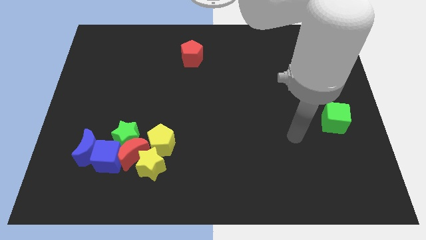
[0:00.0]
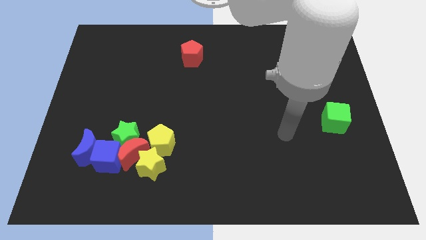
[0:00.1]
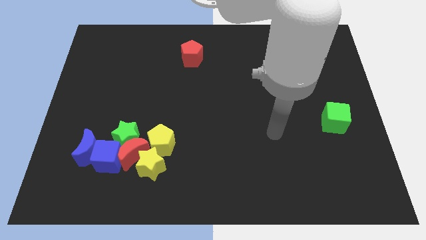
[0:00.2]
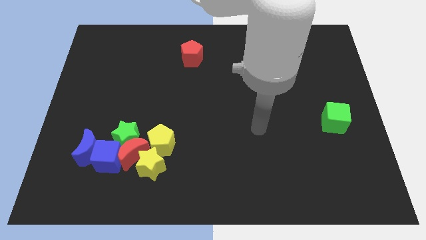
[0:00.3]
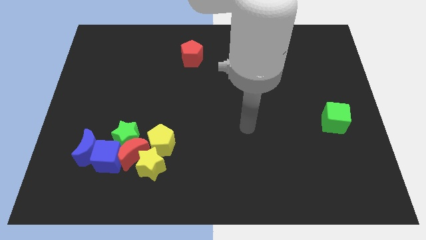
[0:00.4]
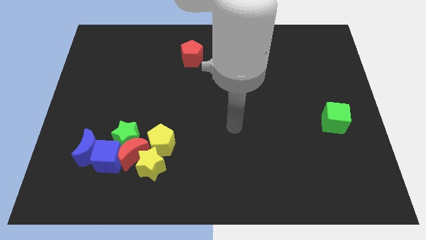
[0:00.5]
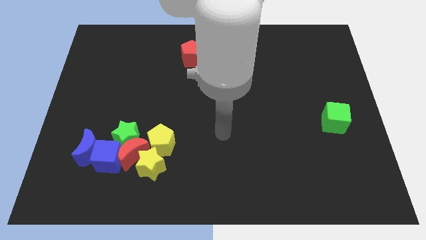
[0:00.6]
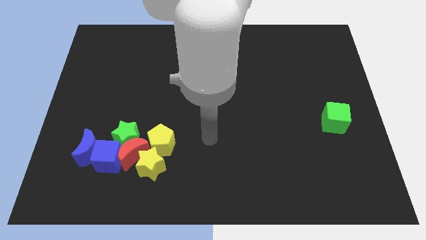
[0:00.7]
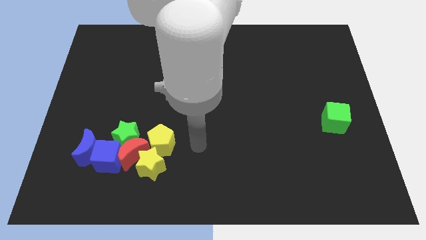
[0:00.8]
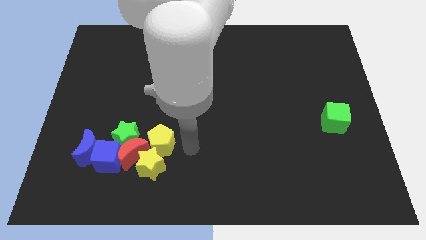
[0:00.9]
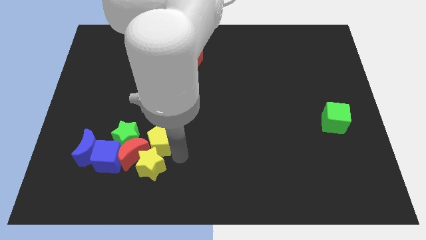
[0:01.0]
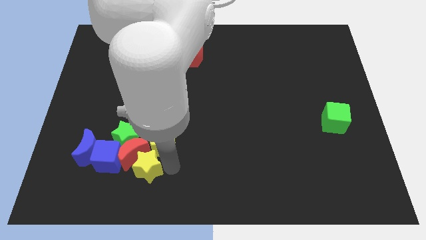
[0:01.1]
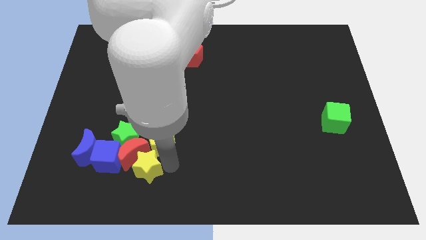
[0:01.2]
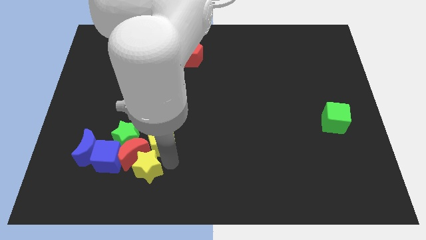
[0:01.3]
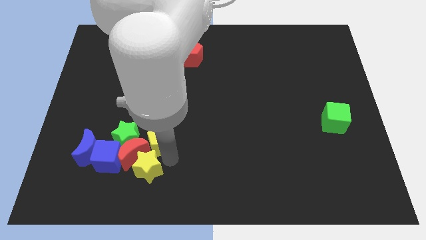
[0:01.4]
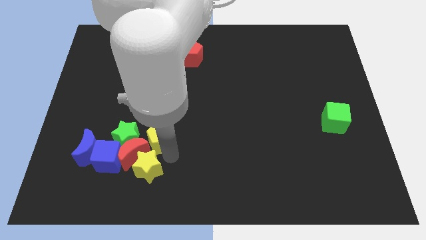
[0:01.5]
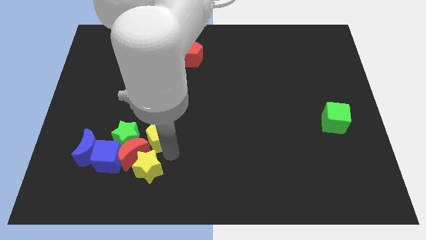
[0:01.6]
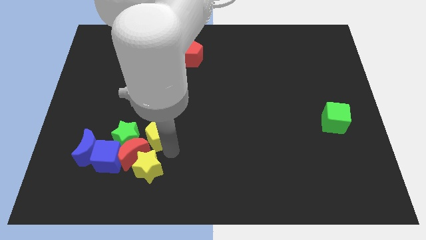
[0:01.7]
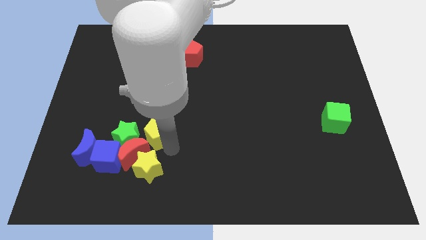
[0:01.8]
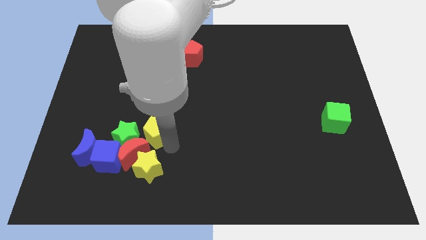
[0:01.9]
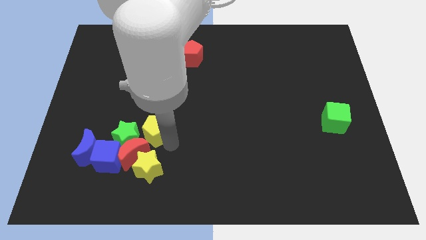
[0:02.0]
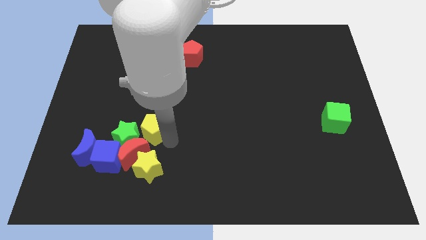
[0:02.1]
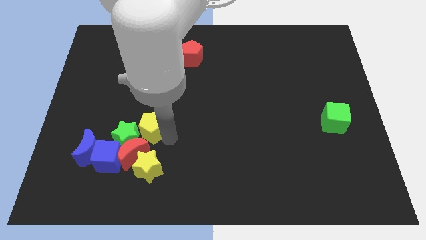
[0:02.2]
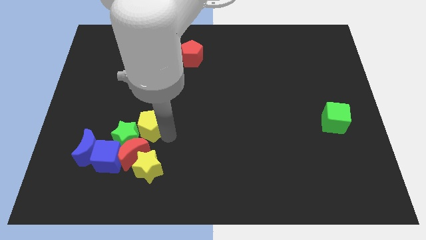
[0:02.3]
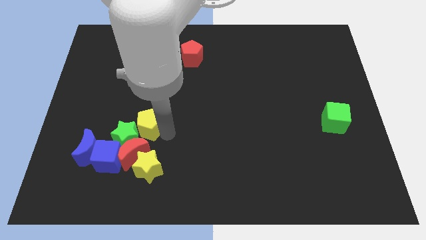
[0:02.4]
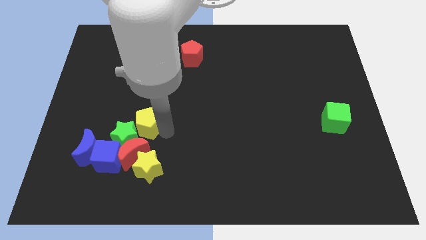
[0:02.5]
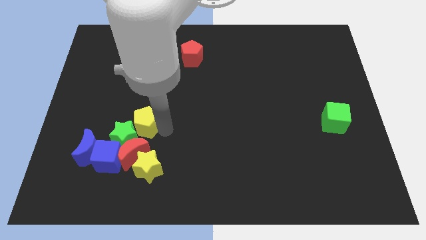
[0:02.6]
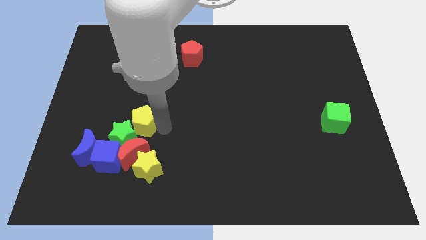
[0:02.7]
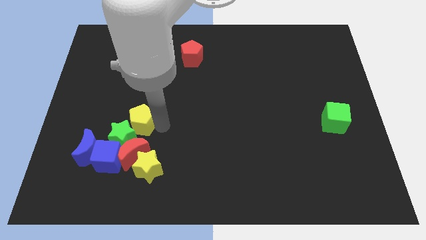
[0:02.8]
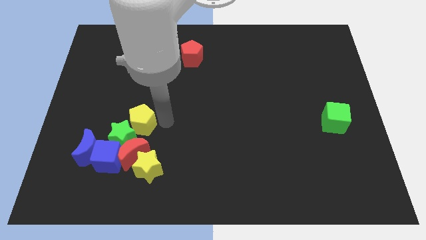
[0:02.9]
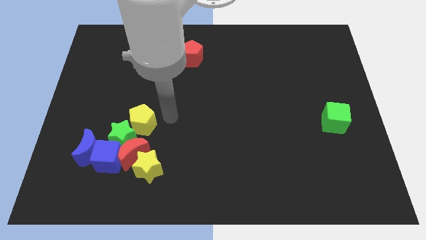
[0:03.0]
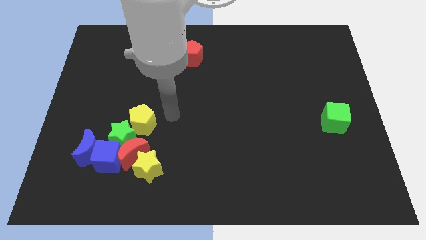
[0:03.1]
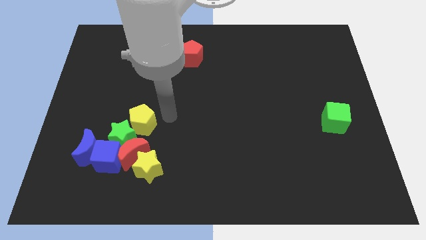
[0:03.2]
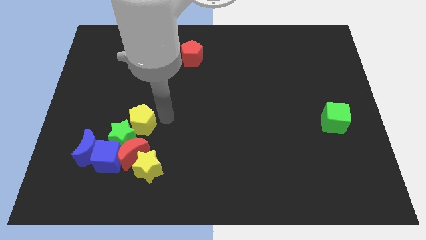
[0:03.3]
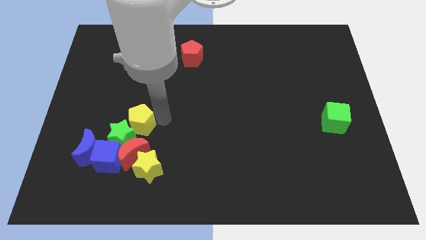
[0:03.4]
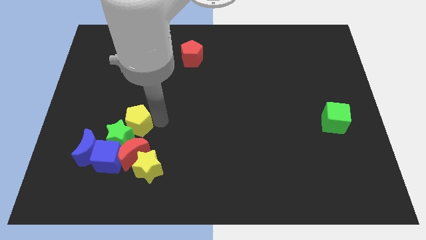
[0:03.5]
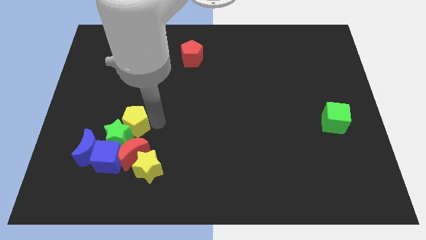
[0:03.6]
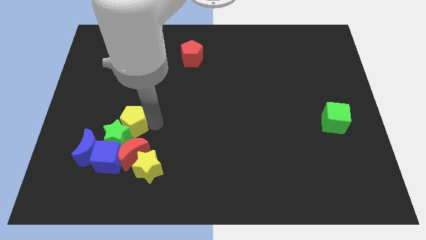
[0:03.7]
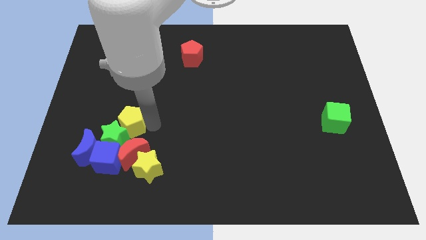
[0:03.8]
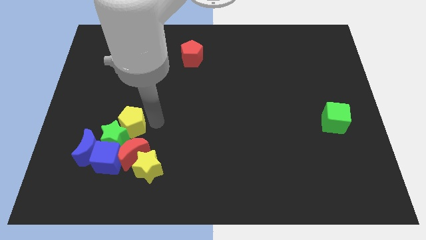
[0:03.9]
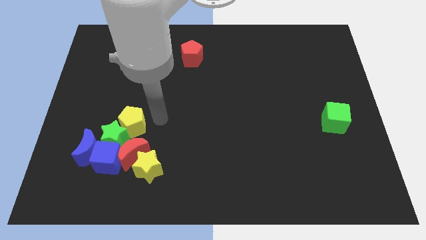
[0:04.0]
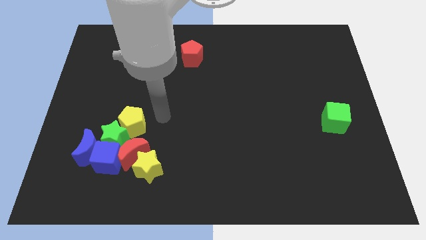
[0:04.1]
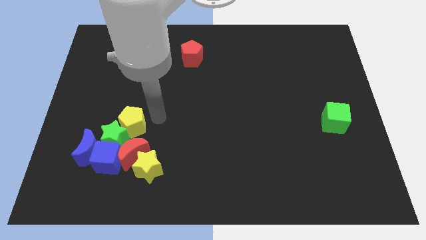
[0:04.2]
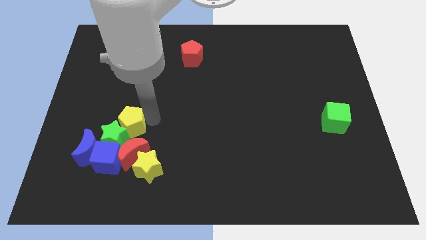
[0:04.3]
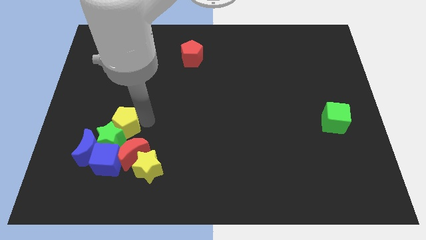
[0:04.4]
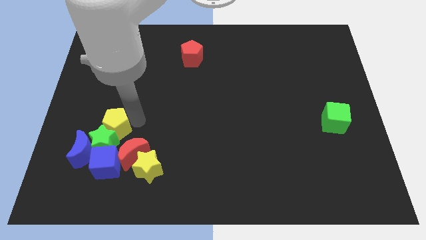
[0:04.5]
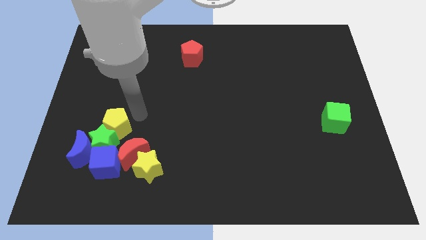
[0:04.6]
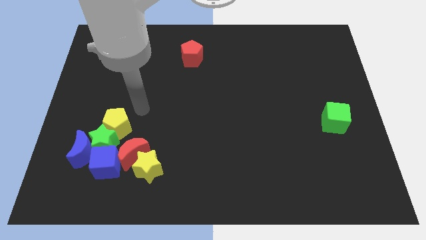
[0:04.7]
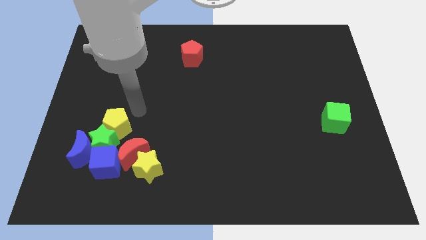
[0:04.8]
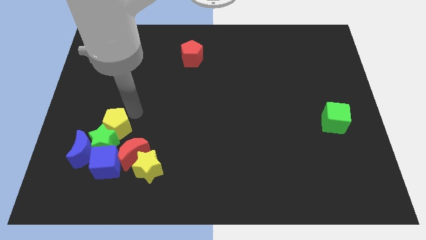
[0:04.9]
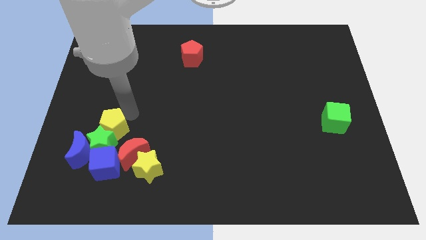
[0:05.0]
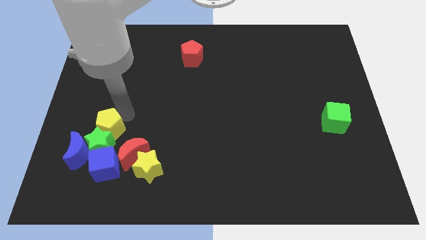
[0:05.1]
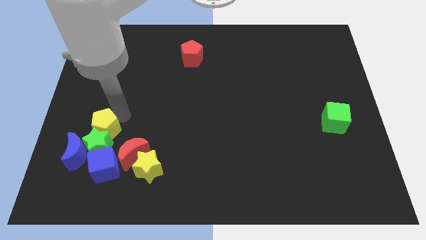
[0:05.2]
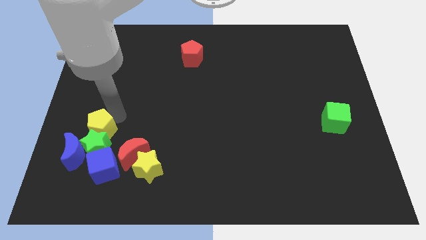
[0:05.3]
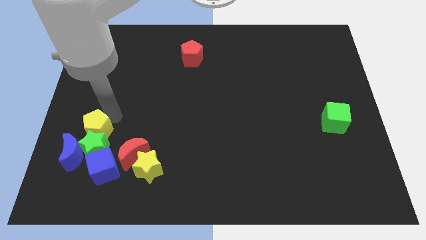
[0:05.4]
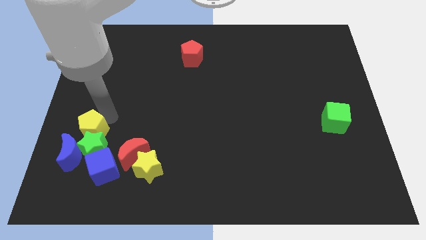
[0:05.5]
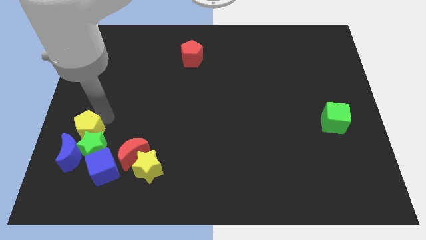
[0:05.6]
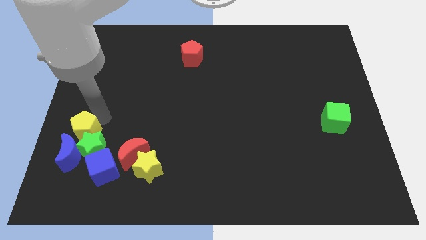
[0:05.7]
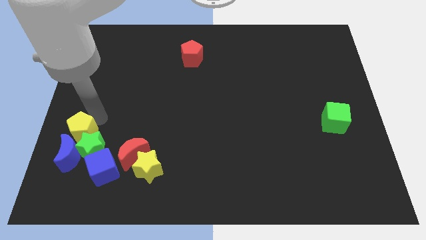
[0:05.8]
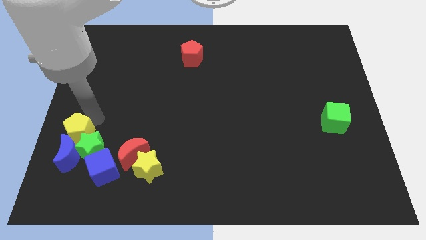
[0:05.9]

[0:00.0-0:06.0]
slide the yellow pentagon to the blue moon
